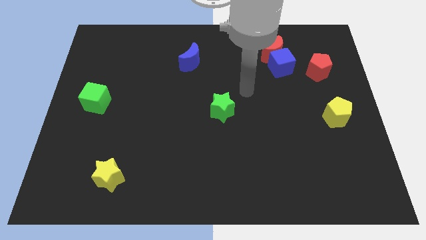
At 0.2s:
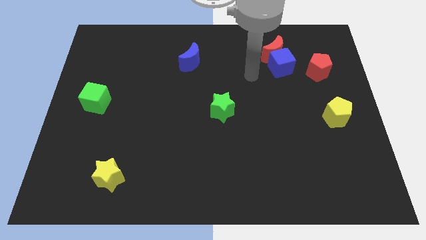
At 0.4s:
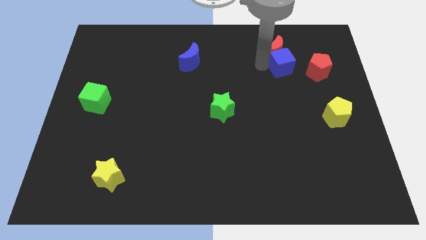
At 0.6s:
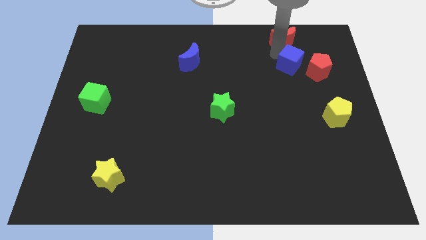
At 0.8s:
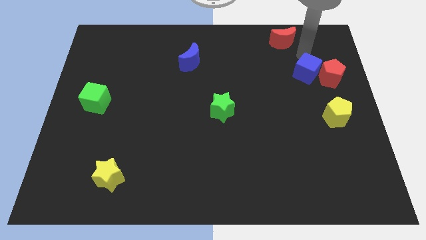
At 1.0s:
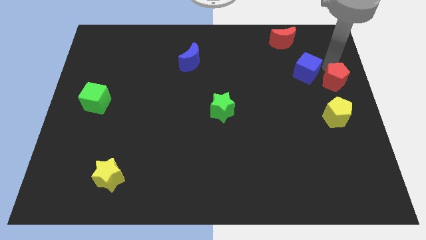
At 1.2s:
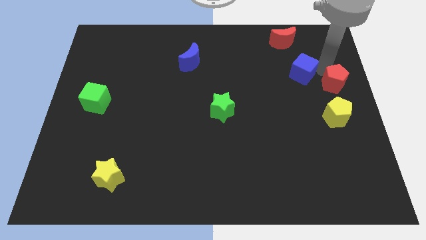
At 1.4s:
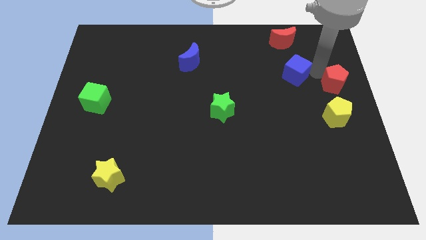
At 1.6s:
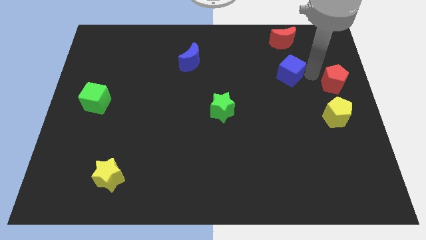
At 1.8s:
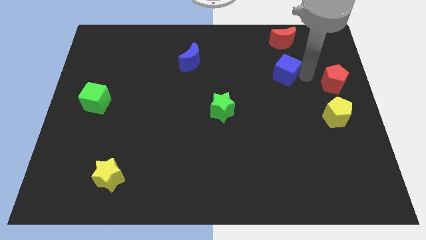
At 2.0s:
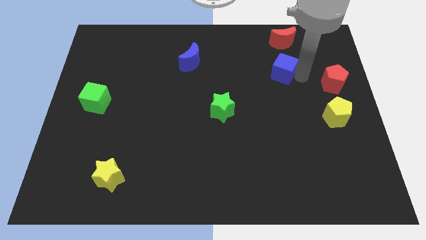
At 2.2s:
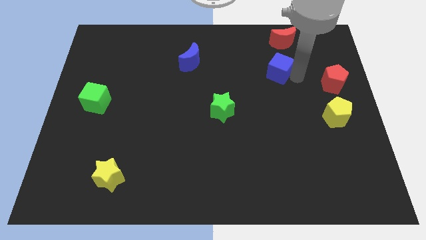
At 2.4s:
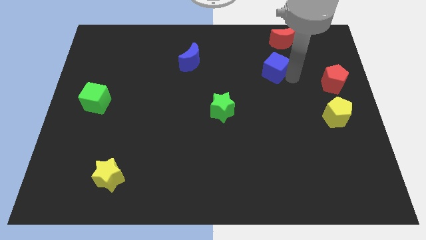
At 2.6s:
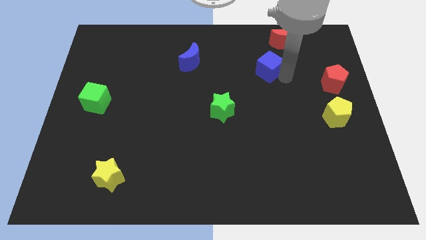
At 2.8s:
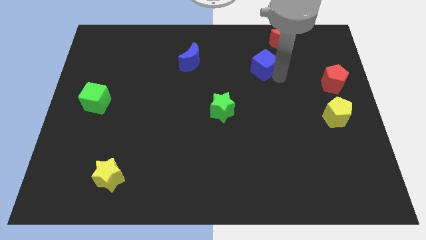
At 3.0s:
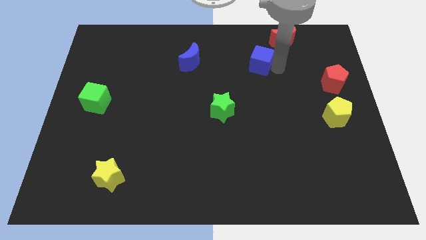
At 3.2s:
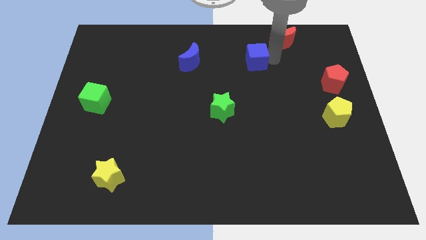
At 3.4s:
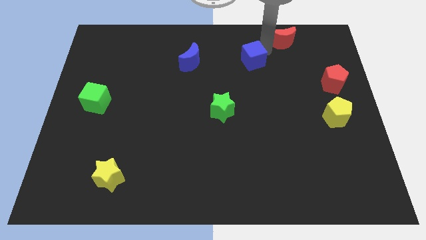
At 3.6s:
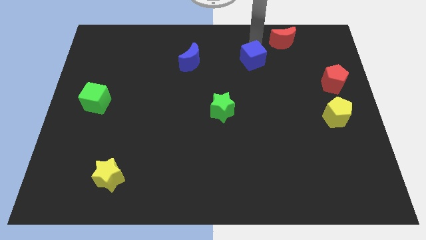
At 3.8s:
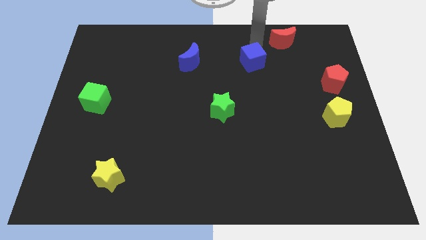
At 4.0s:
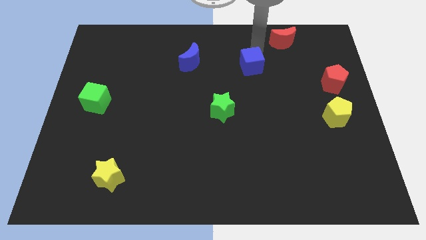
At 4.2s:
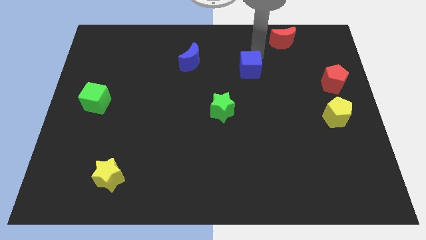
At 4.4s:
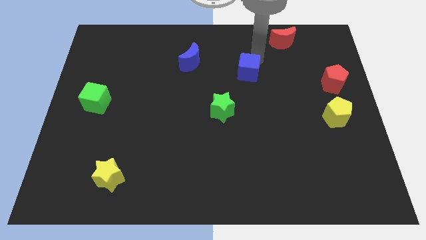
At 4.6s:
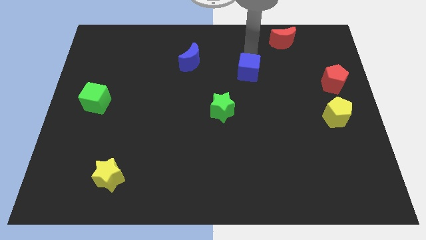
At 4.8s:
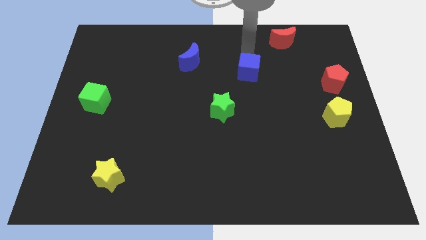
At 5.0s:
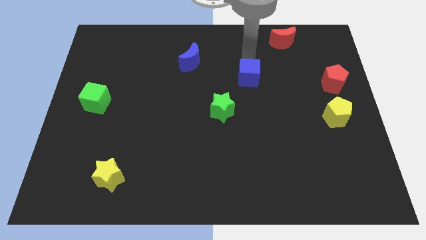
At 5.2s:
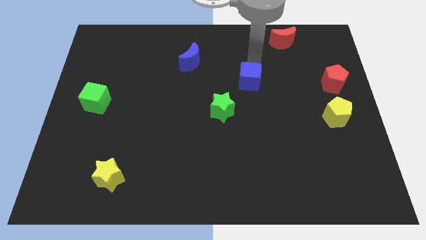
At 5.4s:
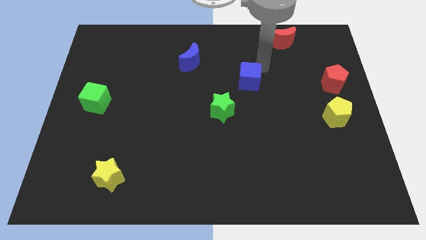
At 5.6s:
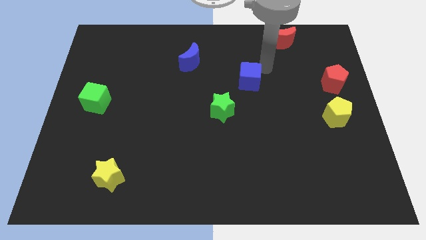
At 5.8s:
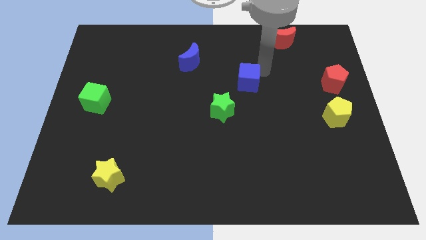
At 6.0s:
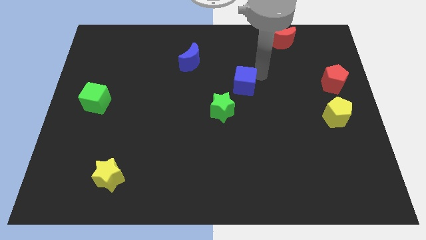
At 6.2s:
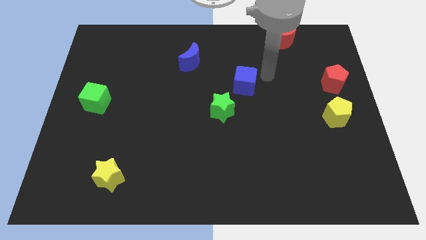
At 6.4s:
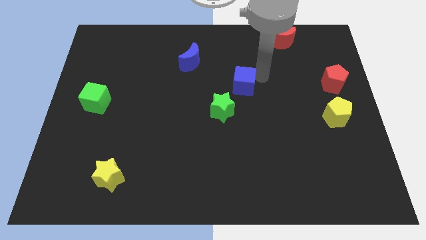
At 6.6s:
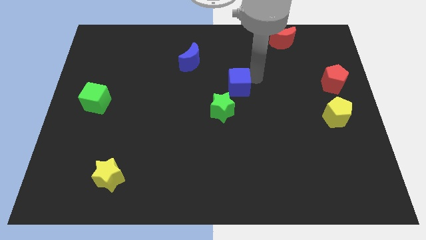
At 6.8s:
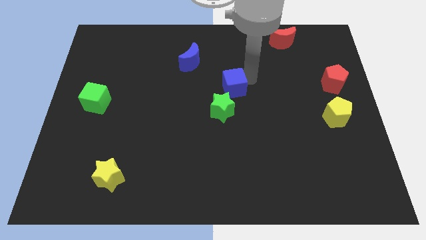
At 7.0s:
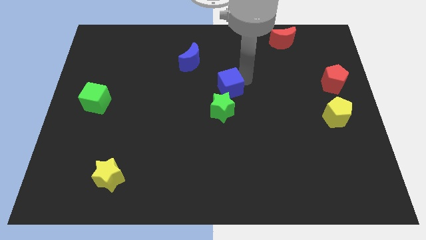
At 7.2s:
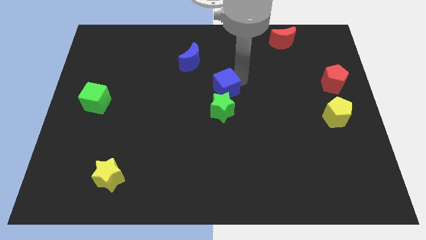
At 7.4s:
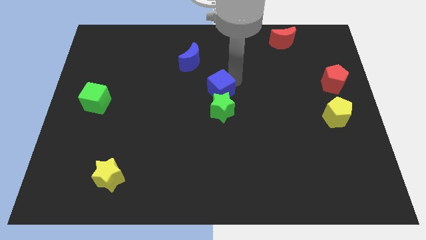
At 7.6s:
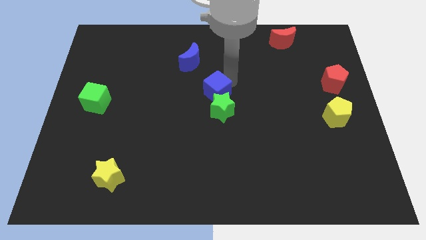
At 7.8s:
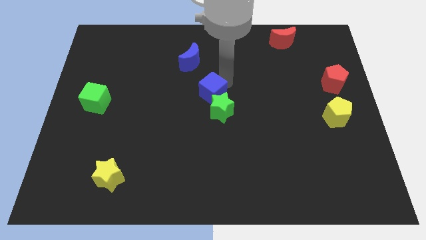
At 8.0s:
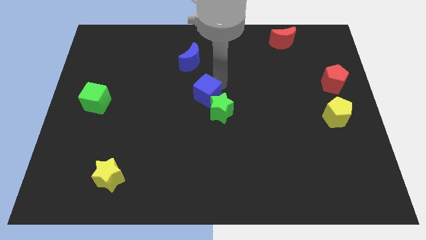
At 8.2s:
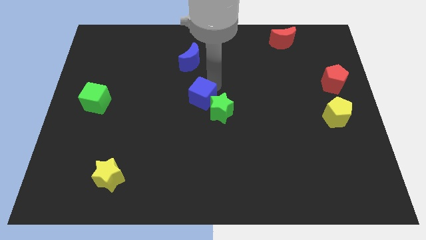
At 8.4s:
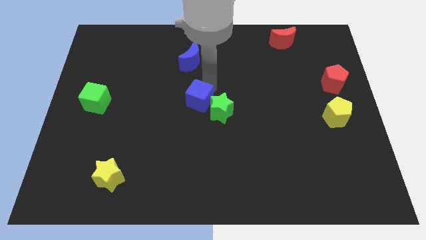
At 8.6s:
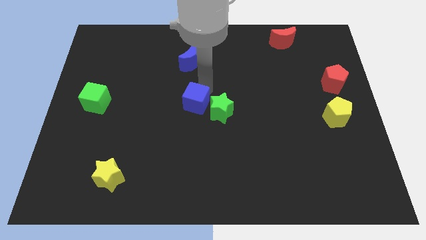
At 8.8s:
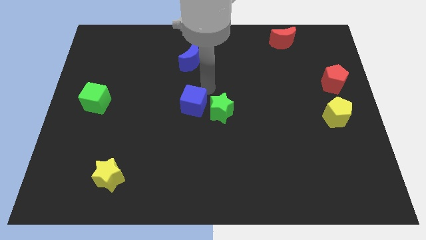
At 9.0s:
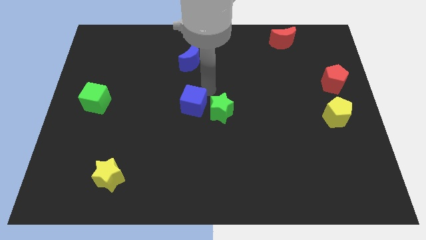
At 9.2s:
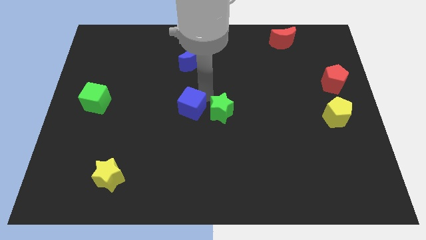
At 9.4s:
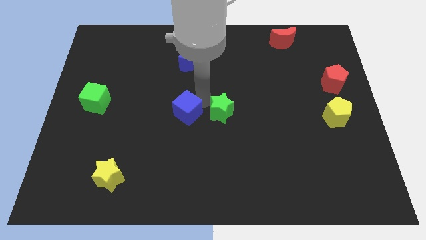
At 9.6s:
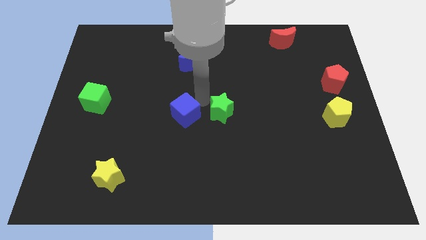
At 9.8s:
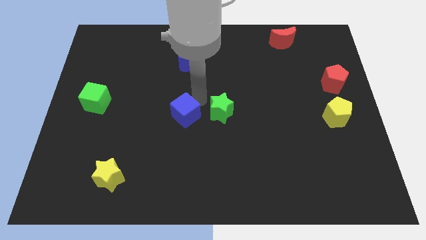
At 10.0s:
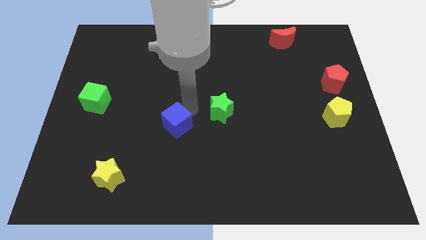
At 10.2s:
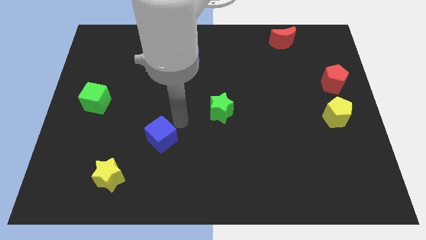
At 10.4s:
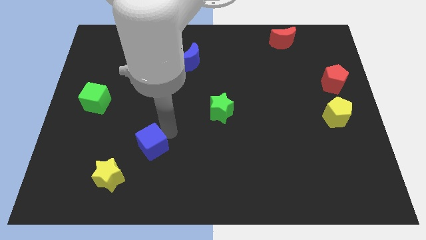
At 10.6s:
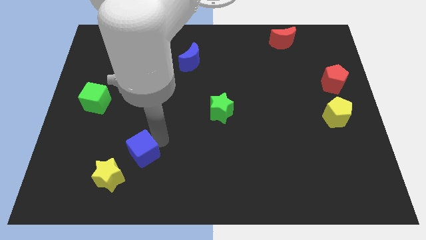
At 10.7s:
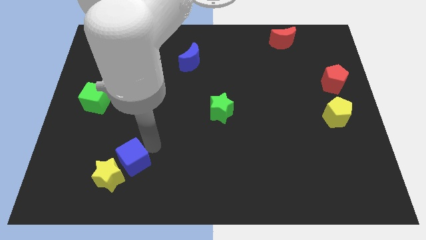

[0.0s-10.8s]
put the blue cube next to the yellow star

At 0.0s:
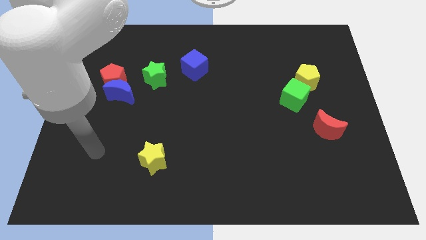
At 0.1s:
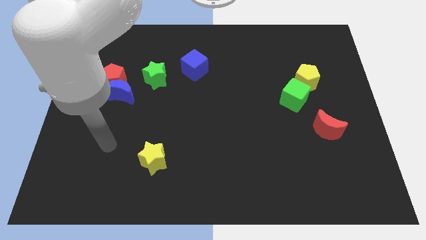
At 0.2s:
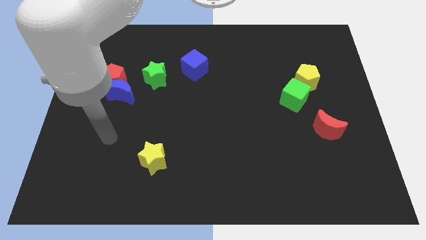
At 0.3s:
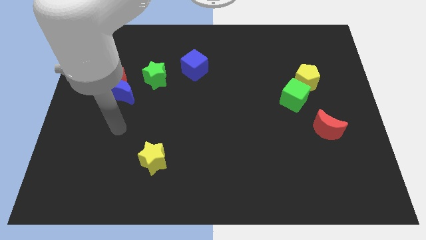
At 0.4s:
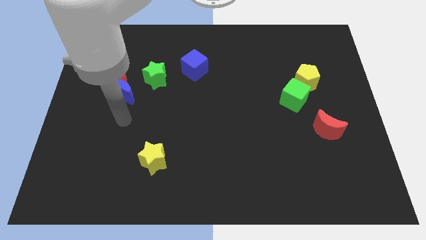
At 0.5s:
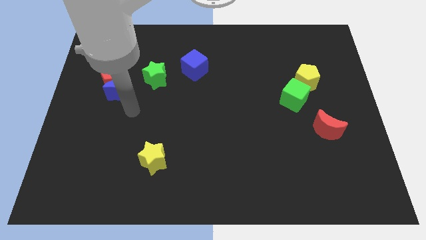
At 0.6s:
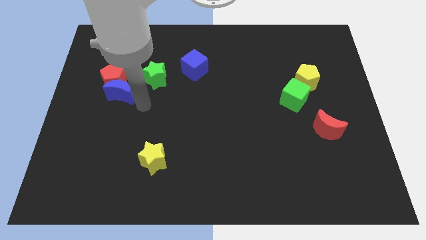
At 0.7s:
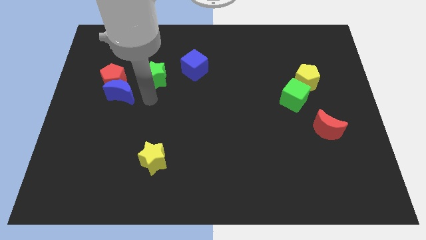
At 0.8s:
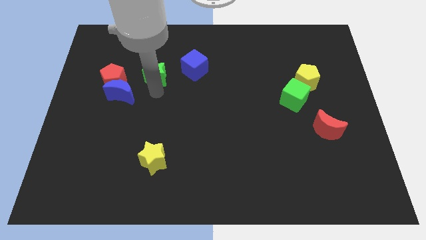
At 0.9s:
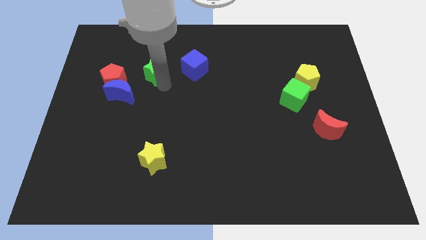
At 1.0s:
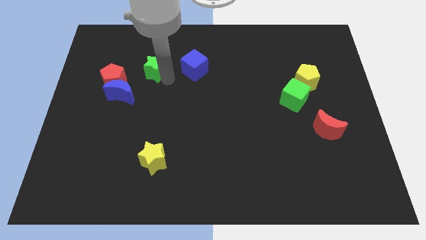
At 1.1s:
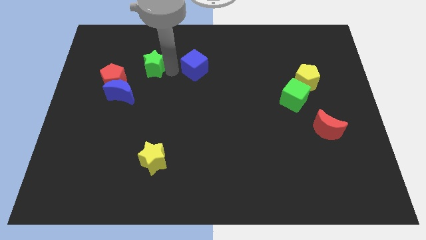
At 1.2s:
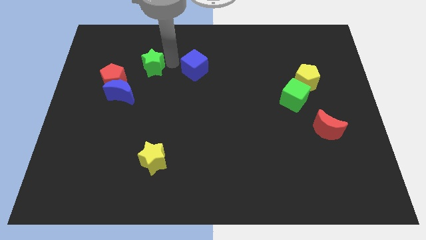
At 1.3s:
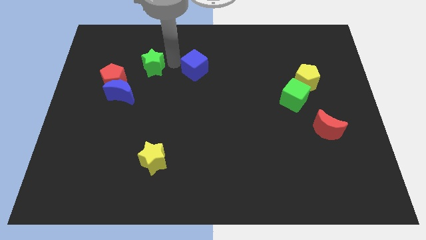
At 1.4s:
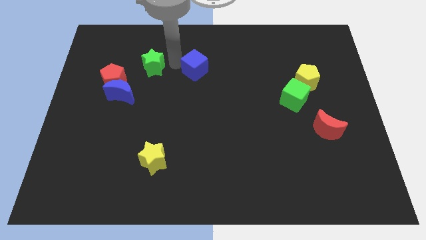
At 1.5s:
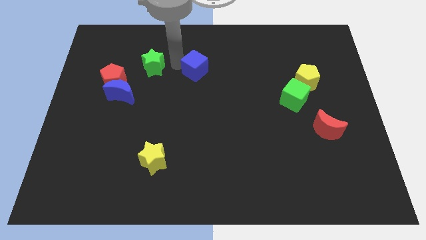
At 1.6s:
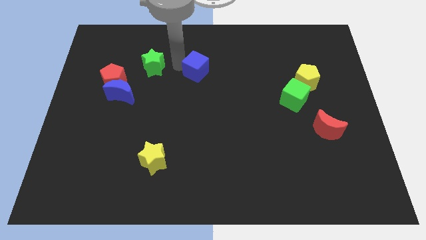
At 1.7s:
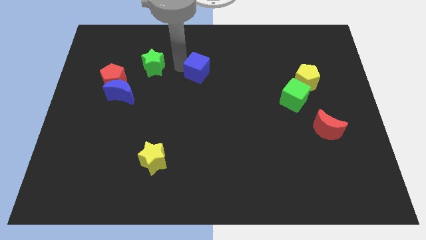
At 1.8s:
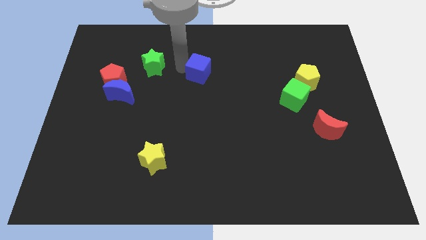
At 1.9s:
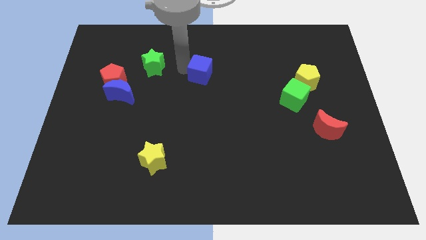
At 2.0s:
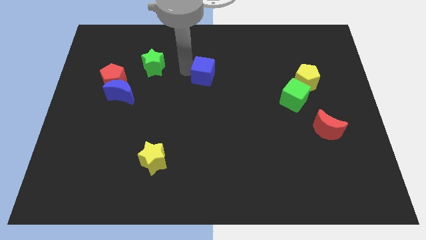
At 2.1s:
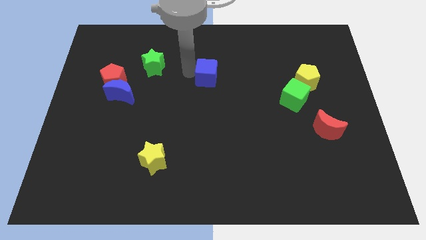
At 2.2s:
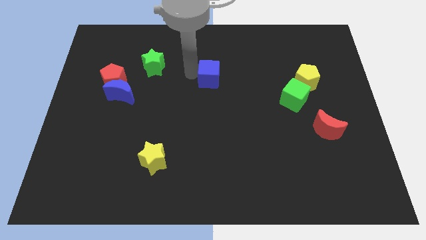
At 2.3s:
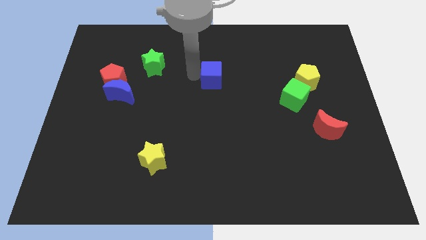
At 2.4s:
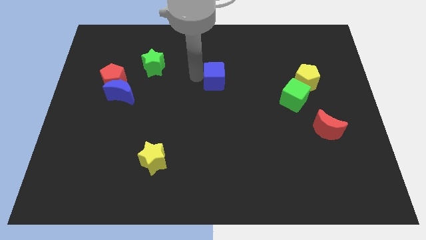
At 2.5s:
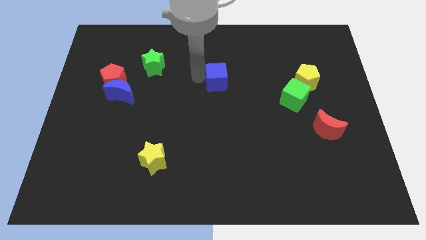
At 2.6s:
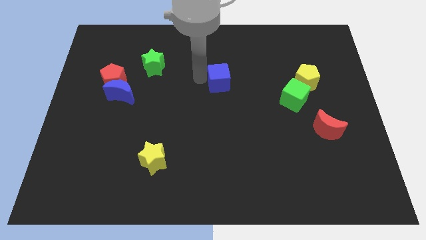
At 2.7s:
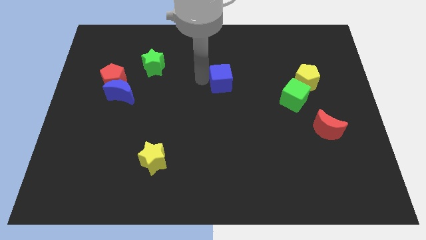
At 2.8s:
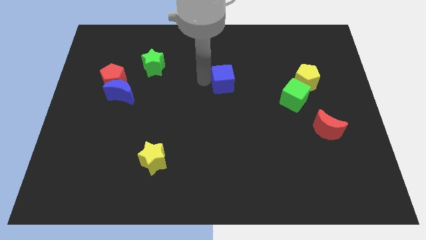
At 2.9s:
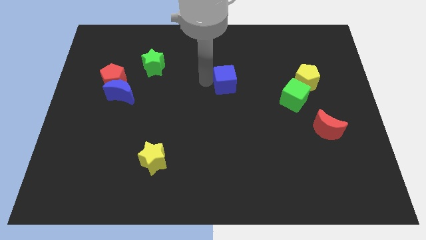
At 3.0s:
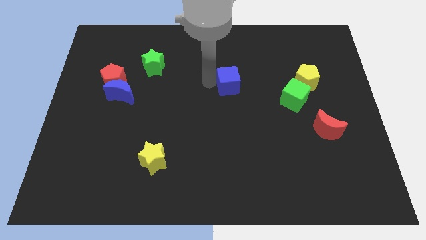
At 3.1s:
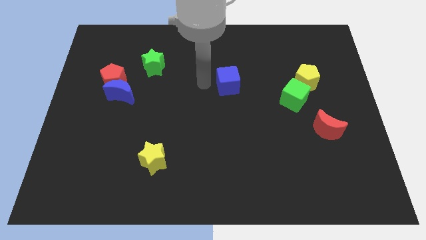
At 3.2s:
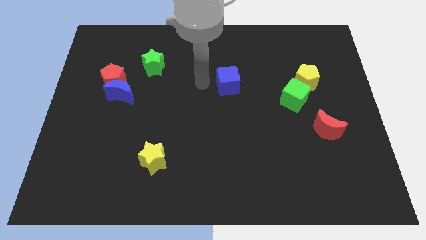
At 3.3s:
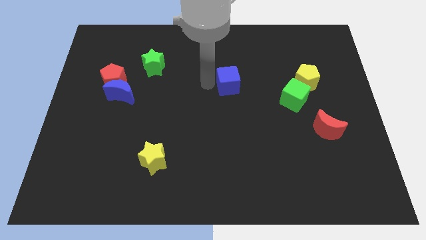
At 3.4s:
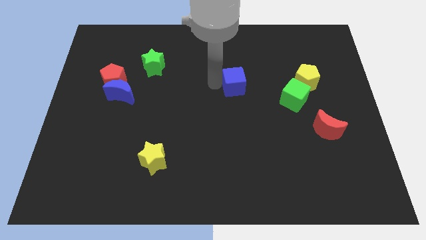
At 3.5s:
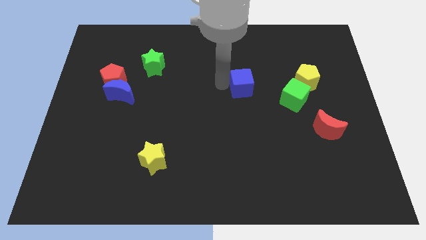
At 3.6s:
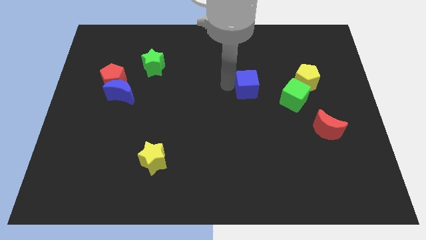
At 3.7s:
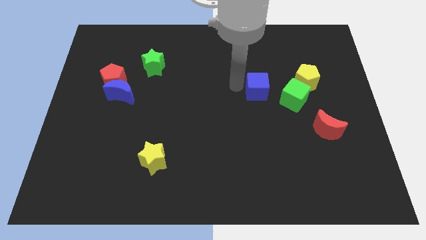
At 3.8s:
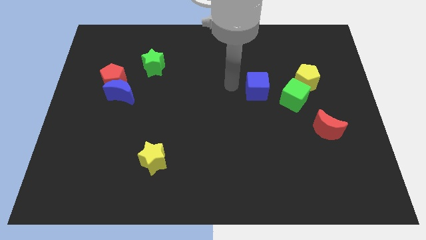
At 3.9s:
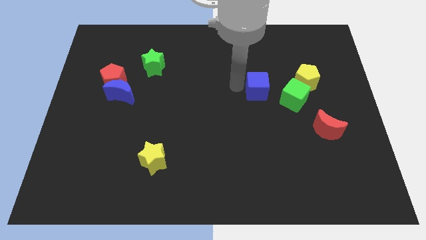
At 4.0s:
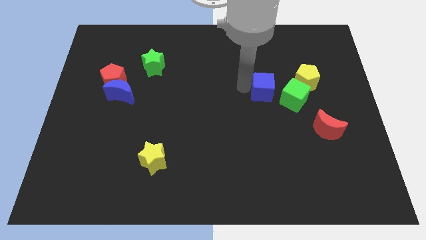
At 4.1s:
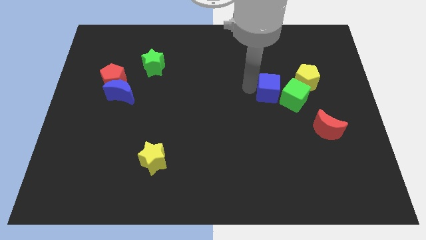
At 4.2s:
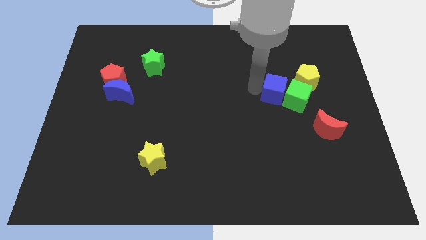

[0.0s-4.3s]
move the blue cube close to the green cube
